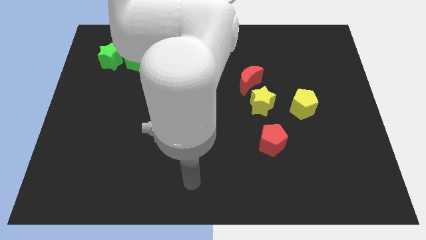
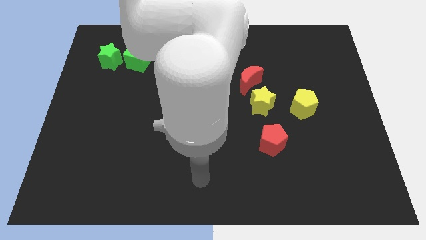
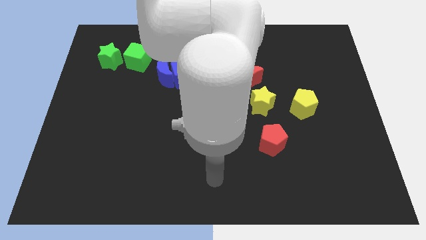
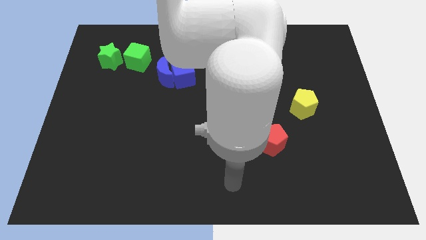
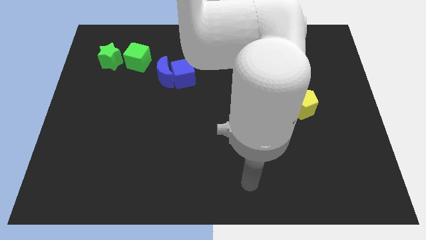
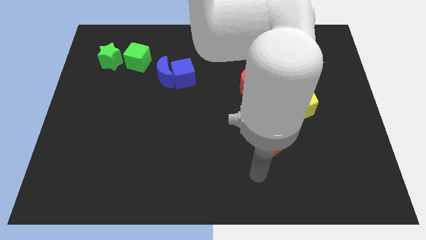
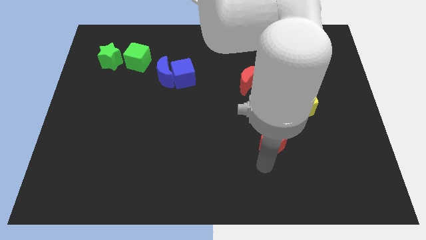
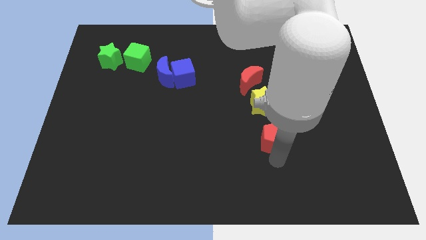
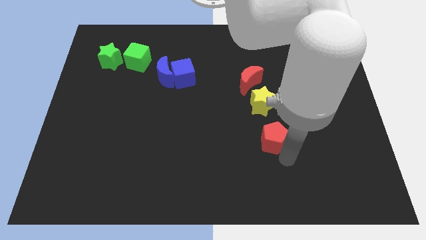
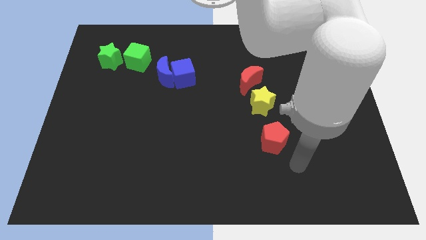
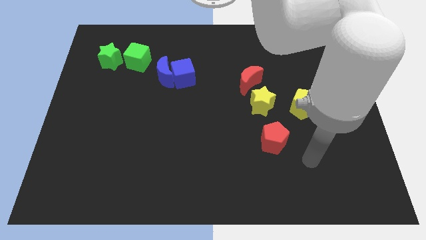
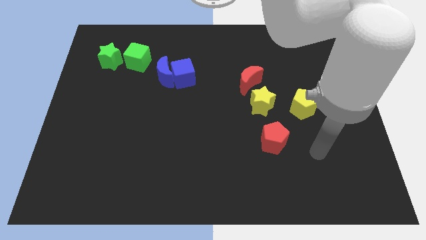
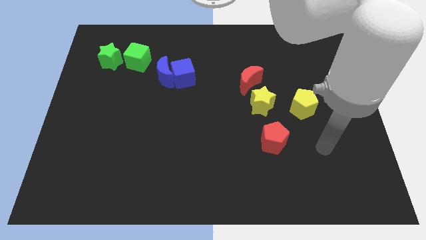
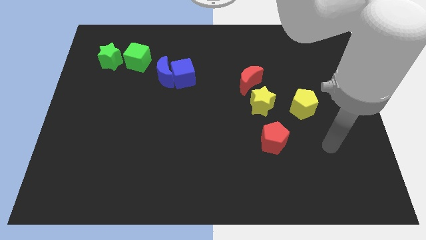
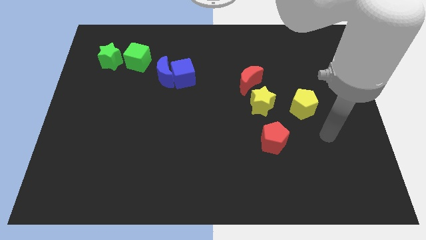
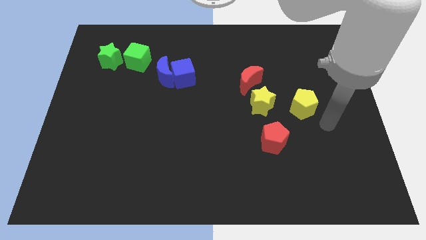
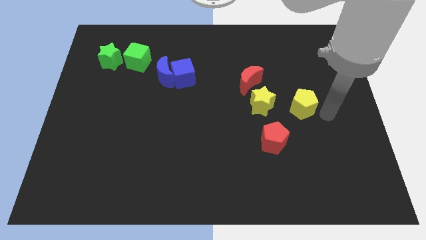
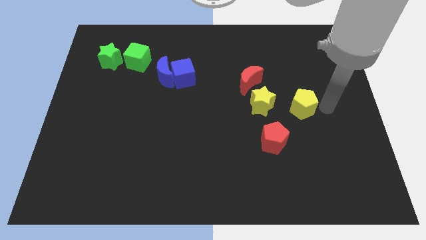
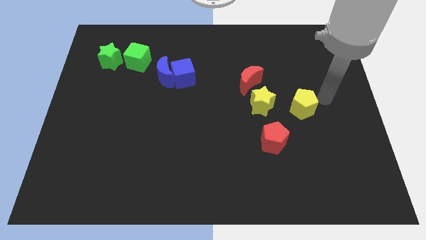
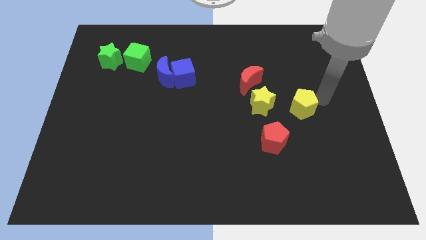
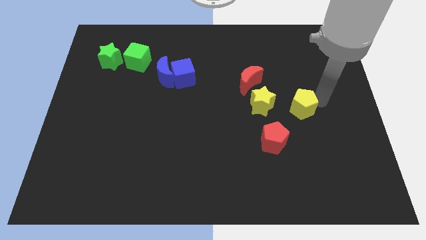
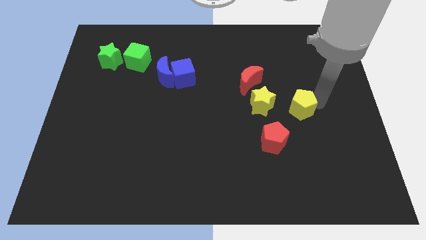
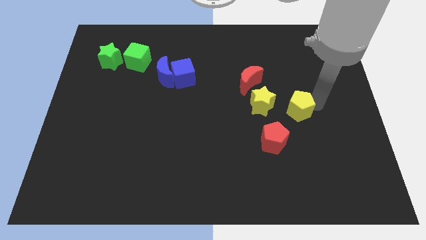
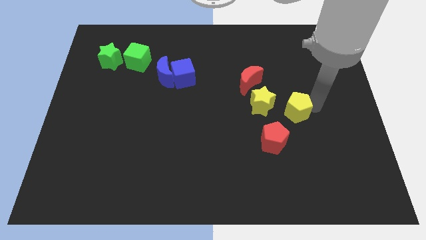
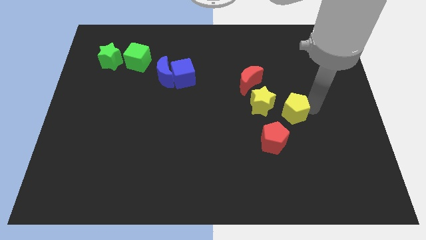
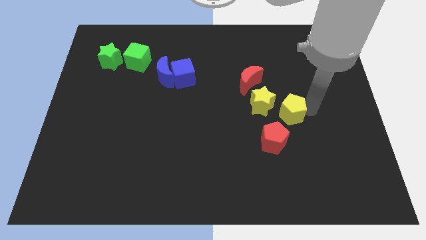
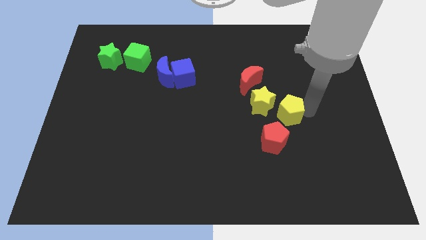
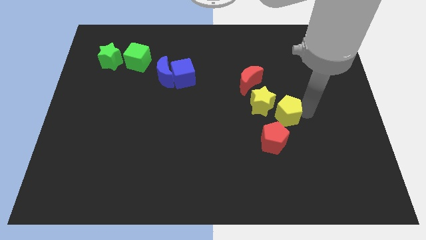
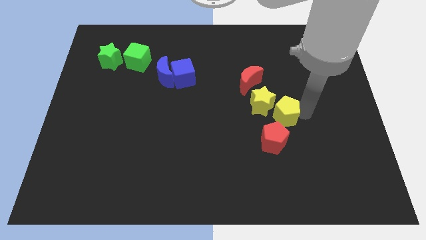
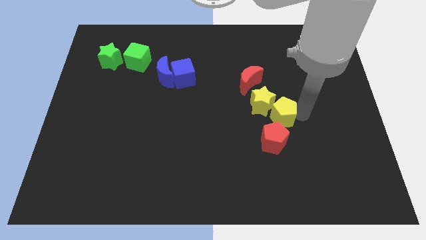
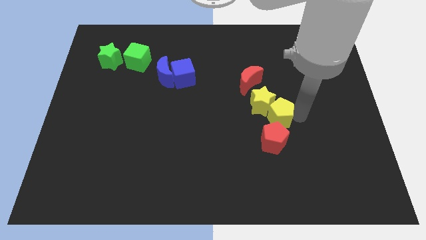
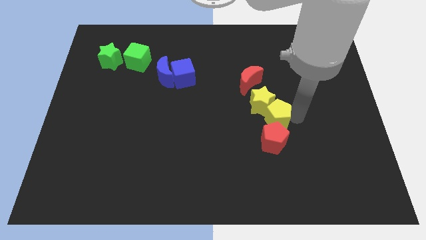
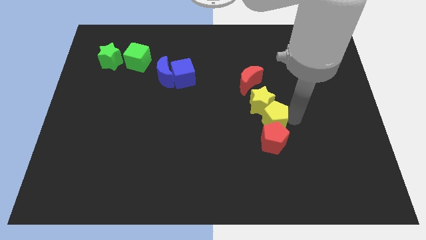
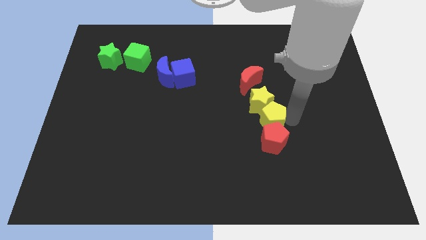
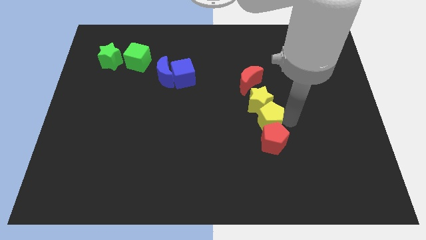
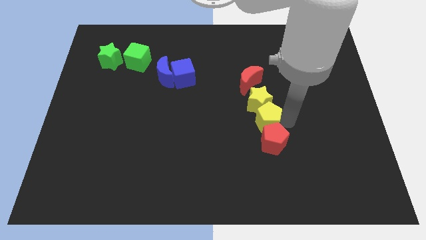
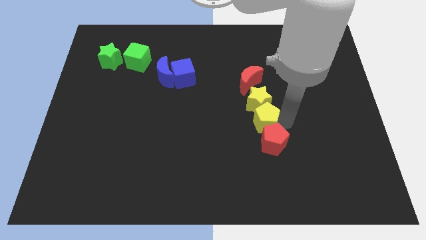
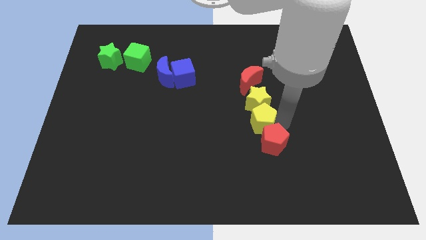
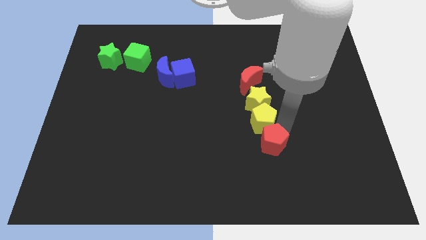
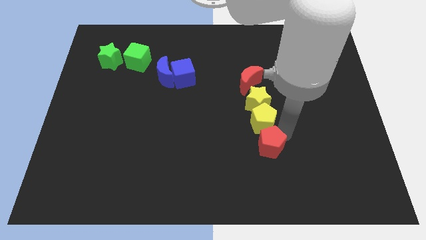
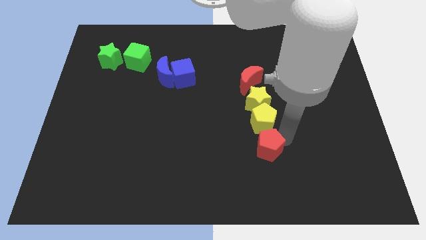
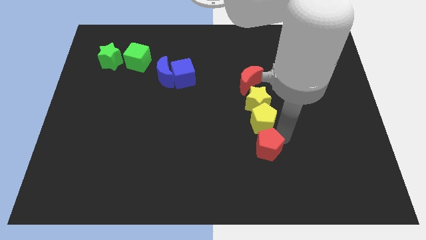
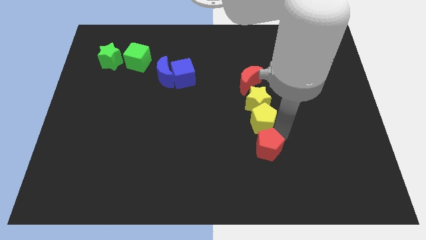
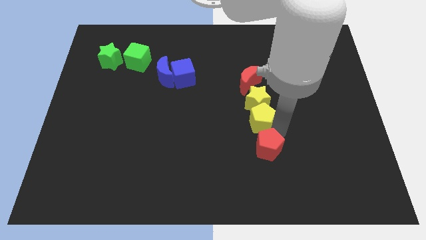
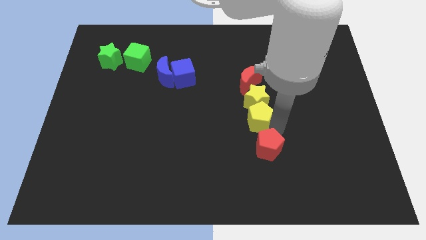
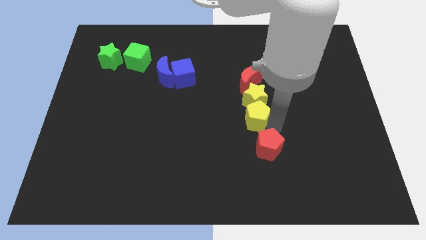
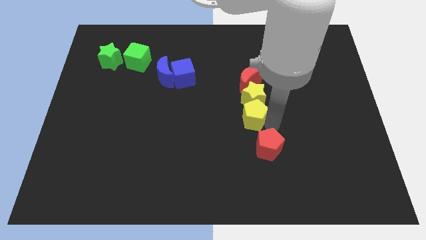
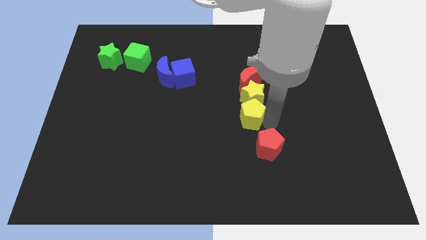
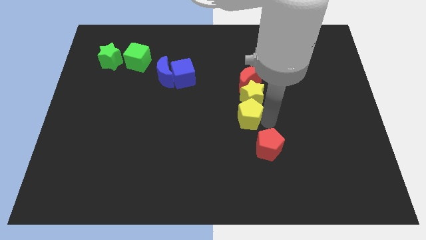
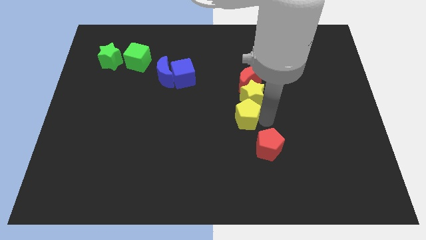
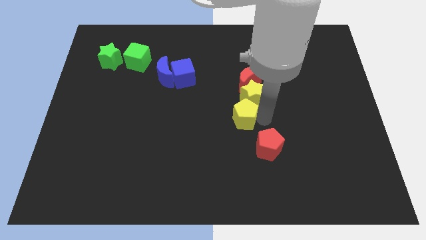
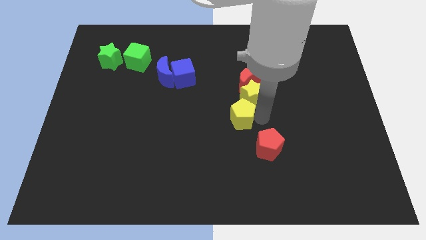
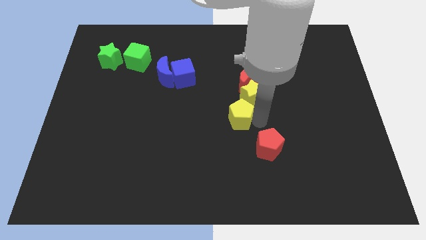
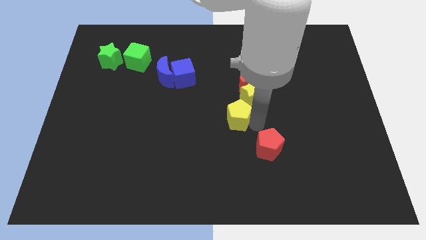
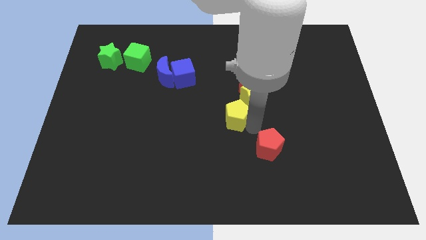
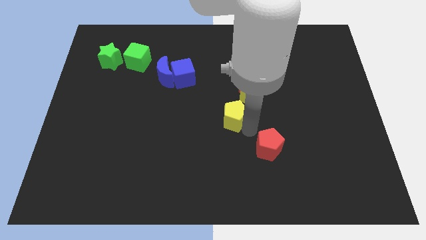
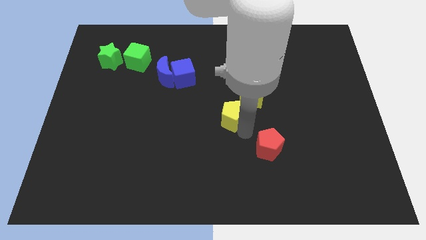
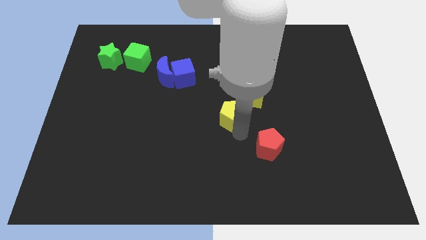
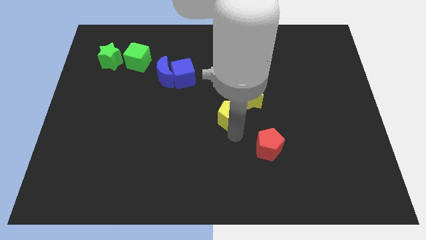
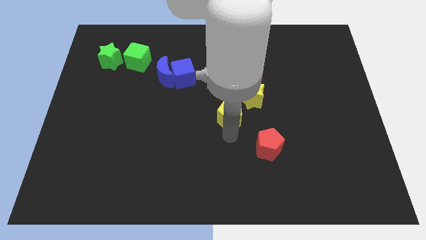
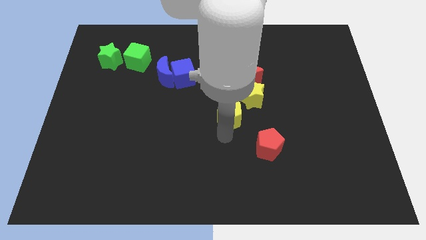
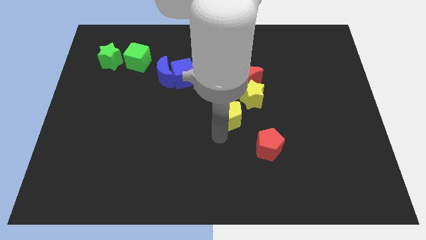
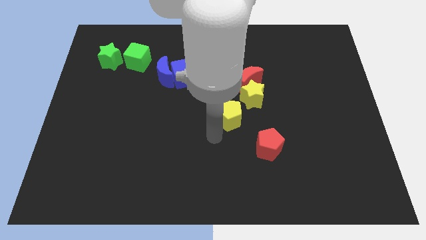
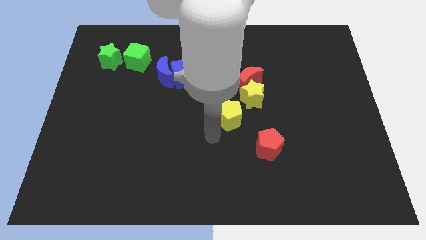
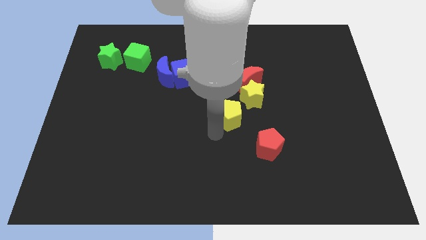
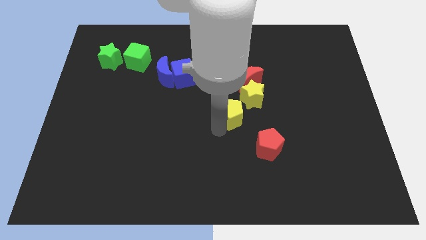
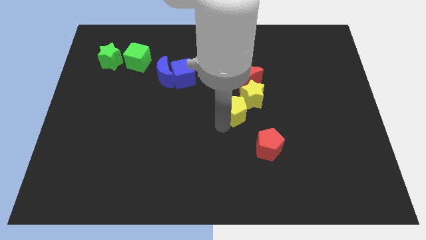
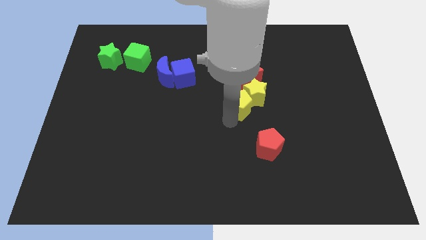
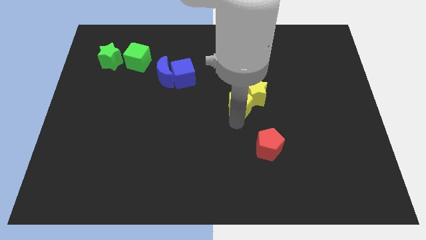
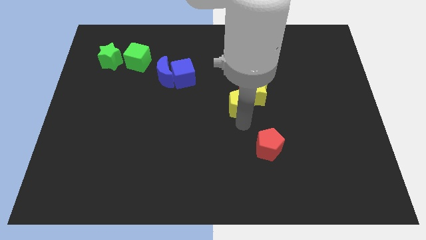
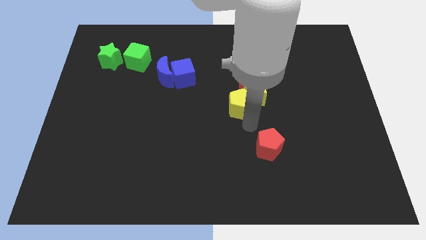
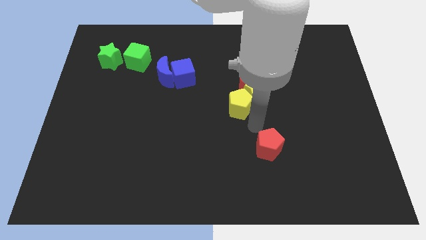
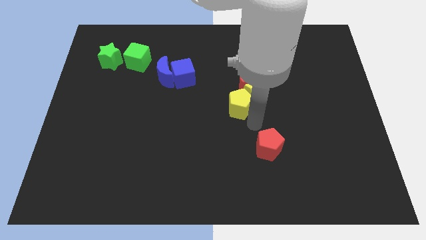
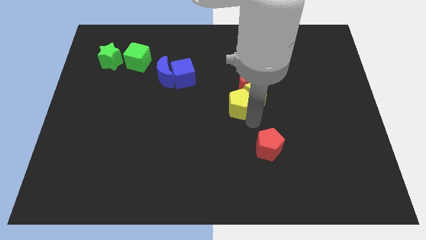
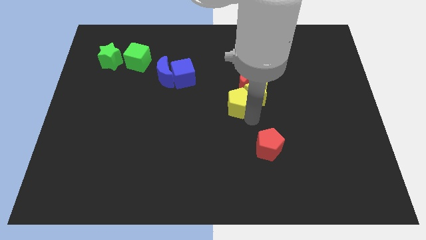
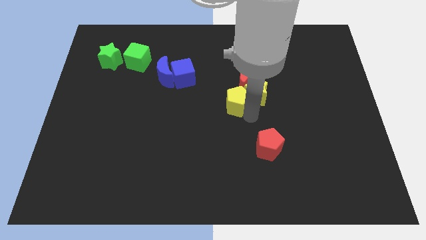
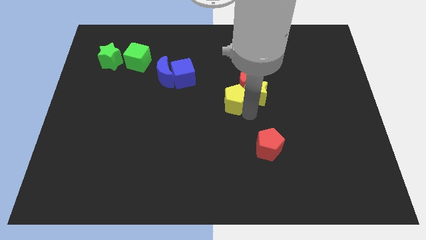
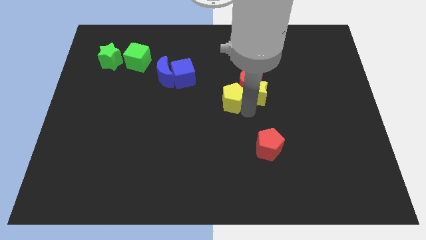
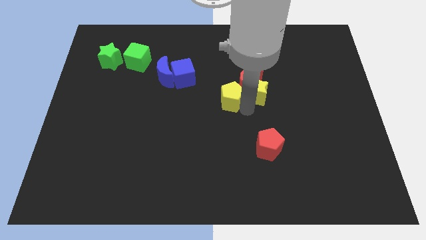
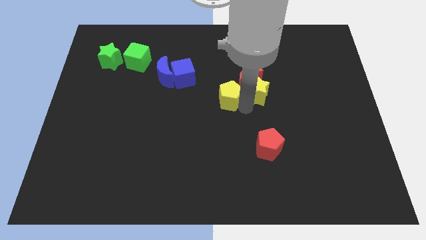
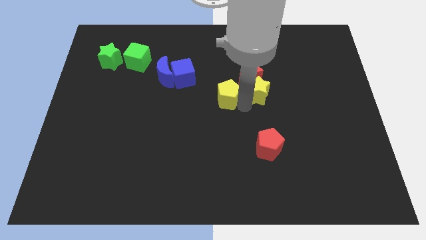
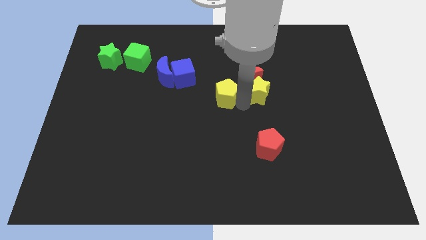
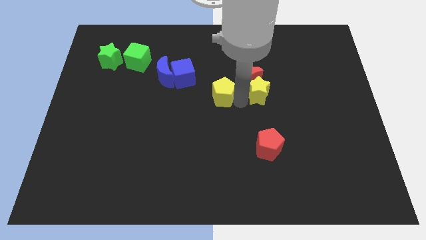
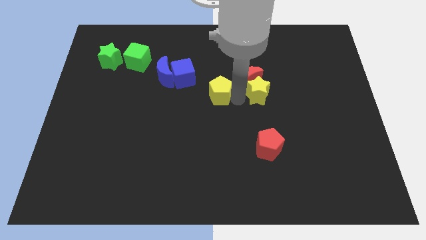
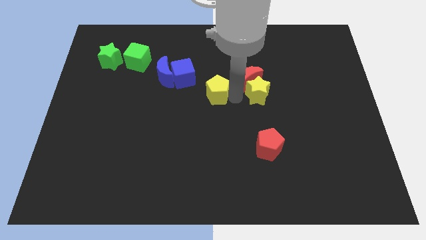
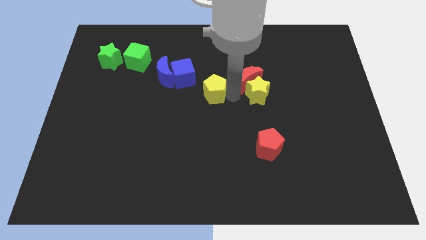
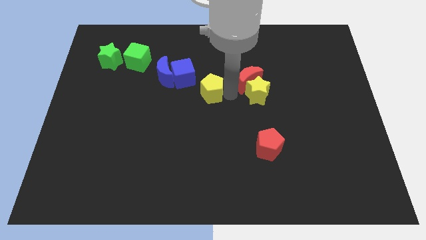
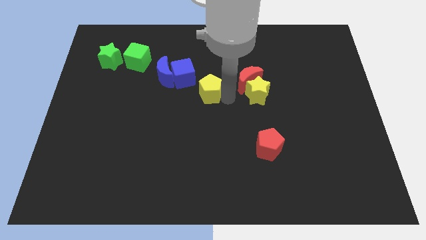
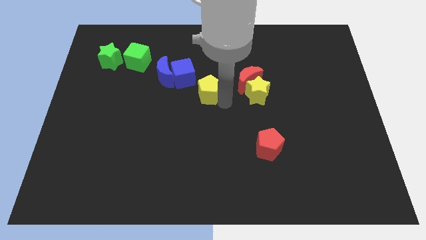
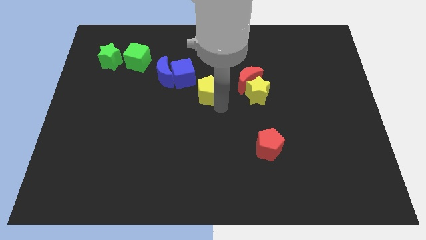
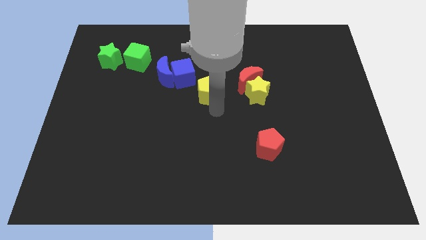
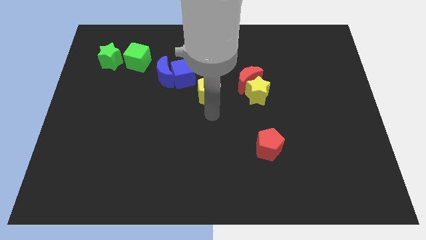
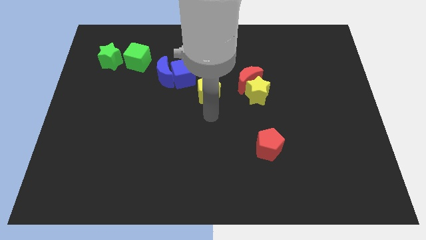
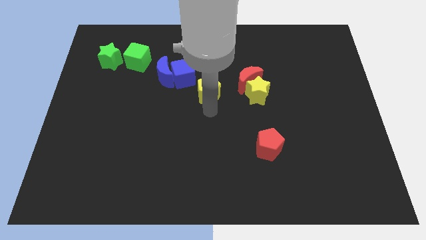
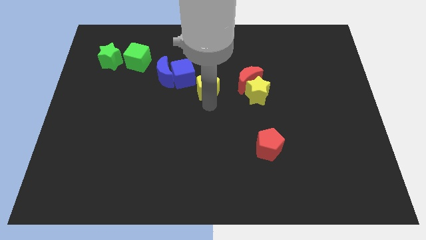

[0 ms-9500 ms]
put the yellow pentagon right of the blue moon
